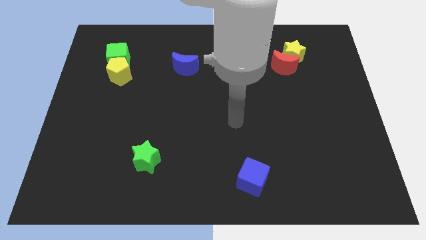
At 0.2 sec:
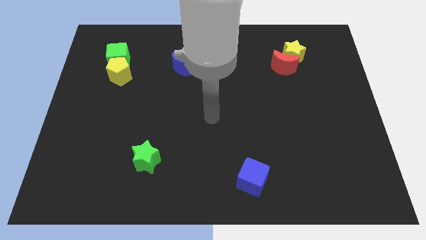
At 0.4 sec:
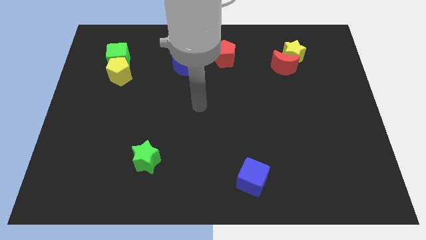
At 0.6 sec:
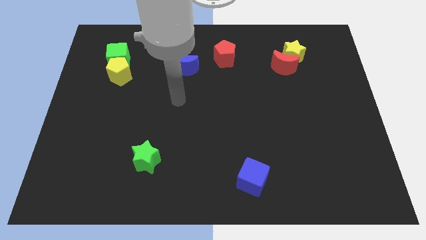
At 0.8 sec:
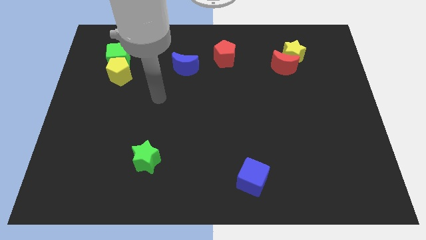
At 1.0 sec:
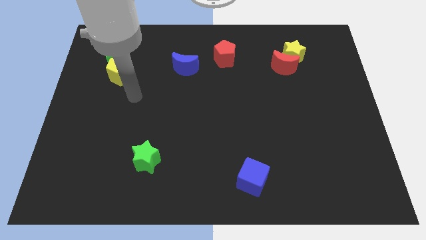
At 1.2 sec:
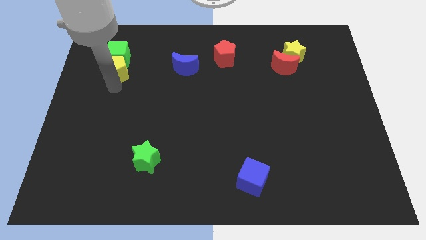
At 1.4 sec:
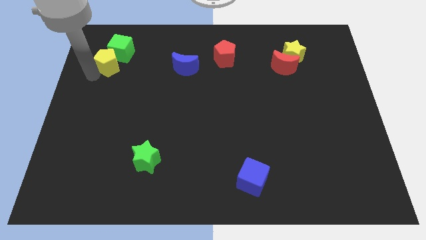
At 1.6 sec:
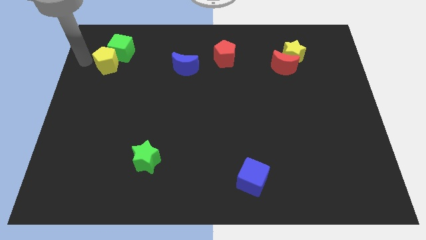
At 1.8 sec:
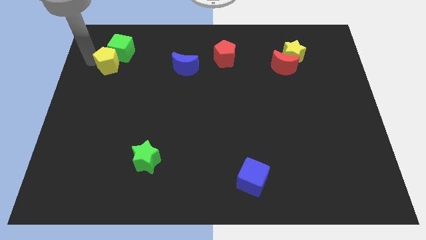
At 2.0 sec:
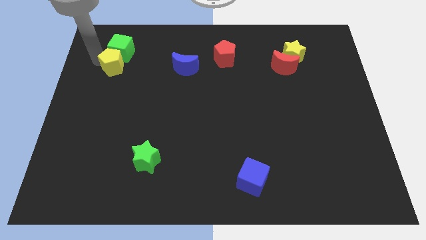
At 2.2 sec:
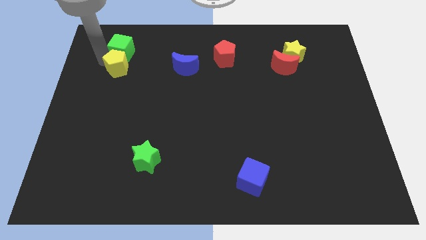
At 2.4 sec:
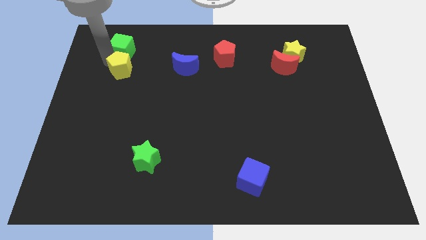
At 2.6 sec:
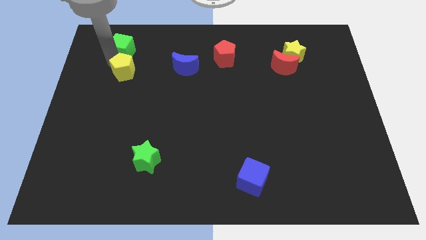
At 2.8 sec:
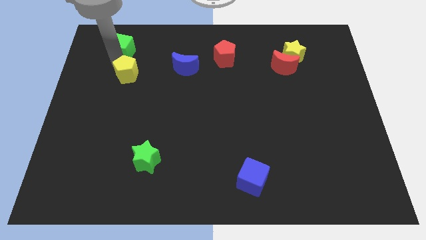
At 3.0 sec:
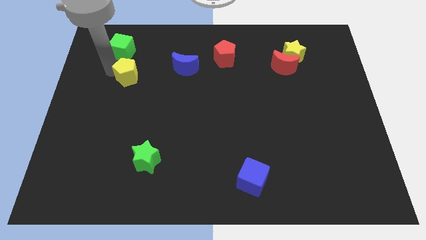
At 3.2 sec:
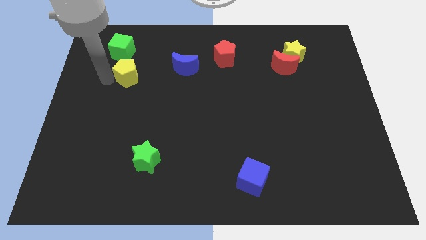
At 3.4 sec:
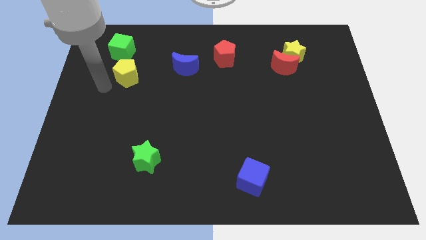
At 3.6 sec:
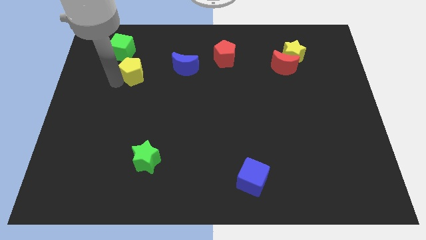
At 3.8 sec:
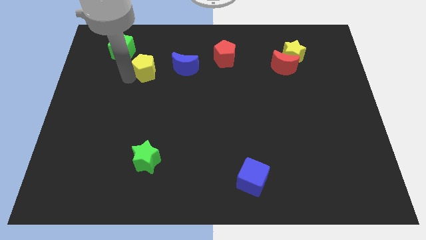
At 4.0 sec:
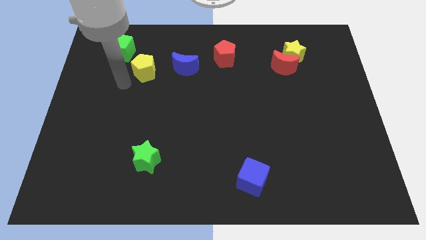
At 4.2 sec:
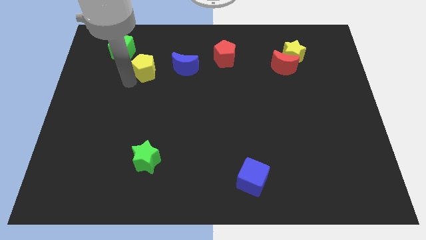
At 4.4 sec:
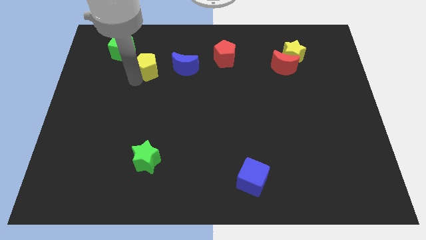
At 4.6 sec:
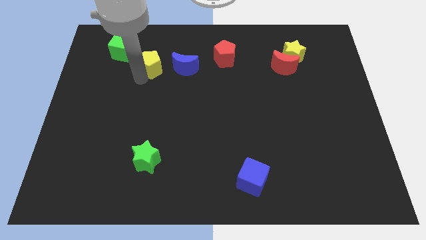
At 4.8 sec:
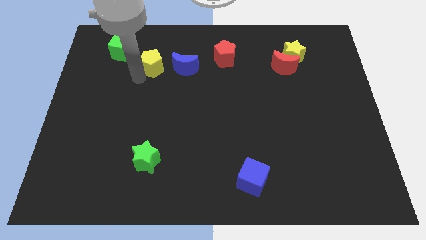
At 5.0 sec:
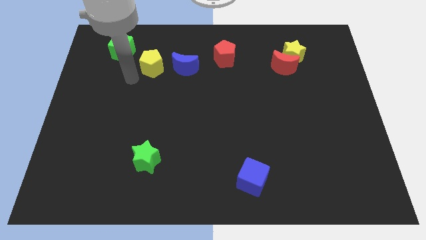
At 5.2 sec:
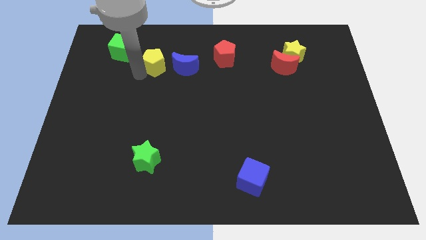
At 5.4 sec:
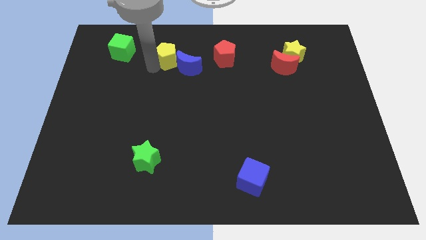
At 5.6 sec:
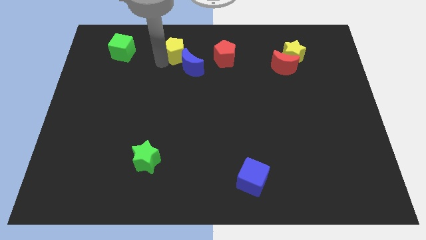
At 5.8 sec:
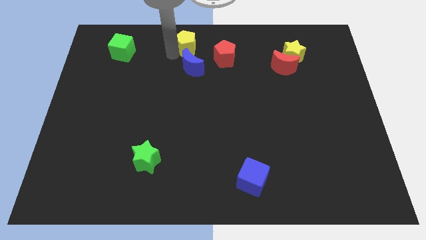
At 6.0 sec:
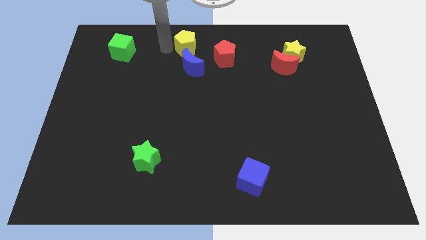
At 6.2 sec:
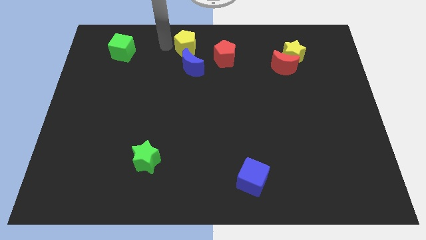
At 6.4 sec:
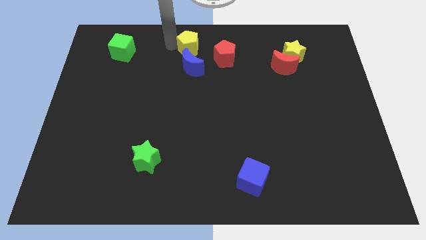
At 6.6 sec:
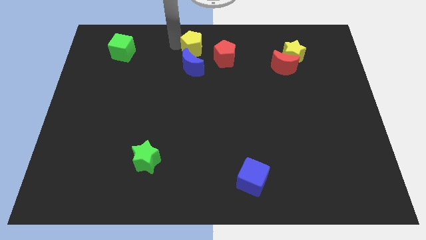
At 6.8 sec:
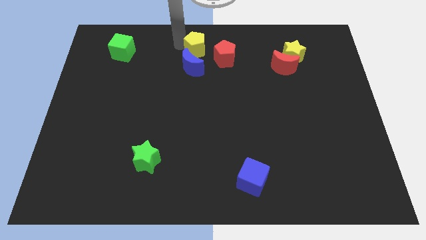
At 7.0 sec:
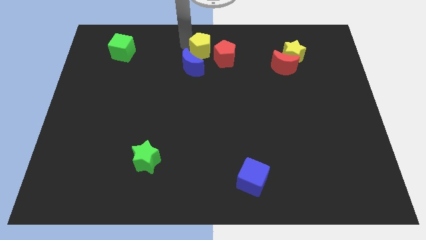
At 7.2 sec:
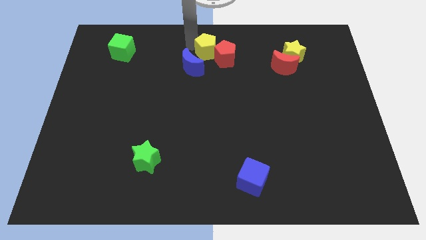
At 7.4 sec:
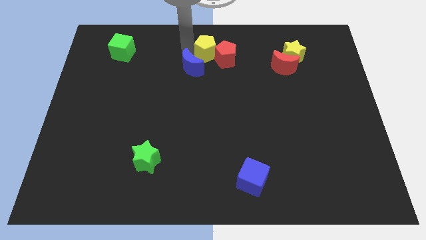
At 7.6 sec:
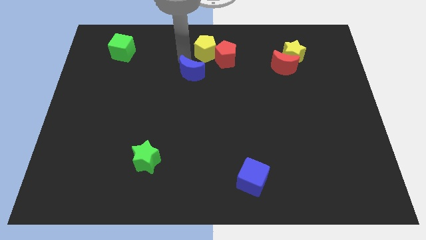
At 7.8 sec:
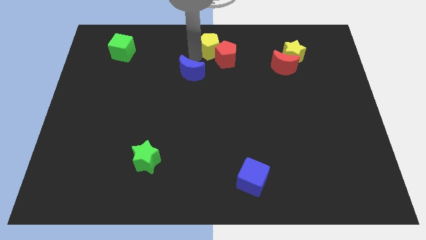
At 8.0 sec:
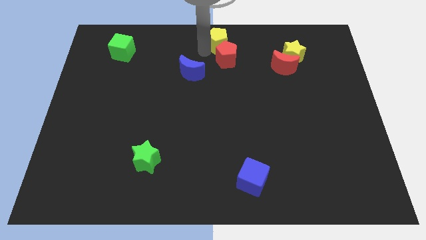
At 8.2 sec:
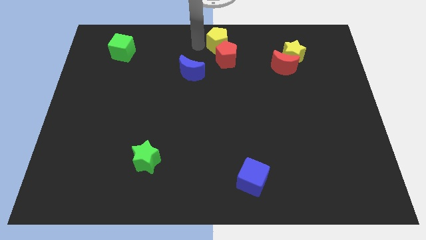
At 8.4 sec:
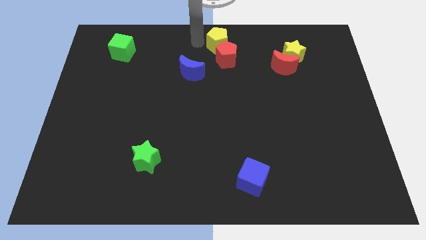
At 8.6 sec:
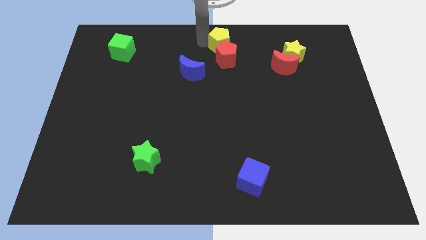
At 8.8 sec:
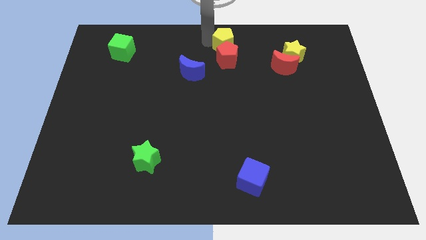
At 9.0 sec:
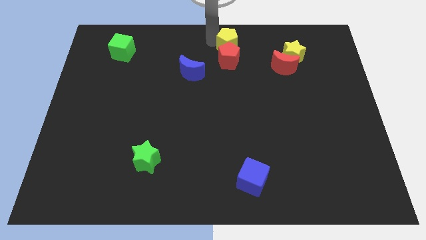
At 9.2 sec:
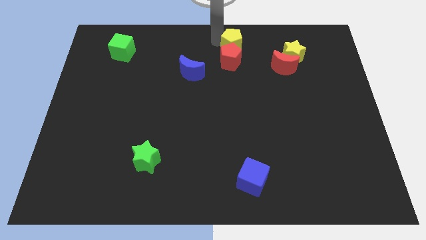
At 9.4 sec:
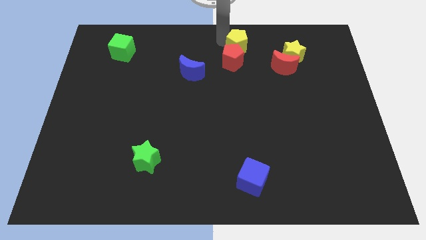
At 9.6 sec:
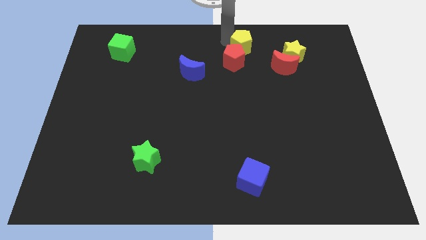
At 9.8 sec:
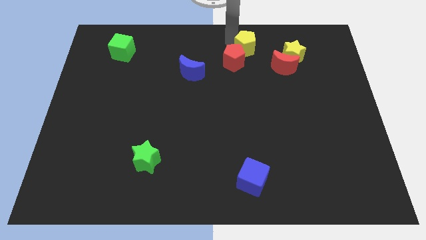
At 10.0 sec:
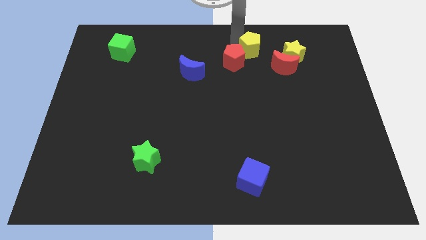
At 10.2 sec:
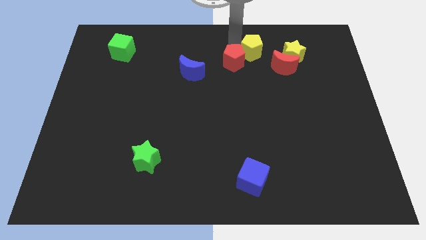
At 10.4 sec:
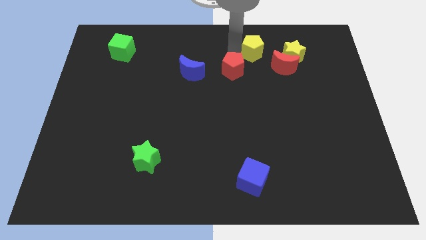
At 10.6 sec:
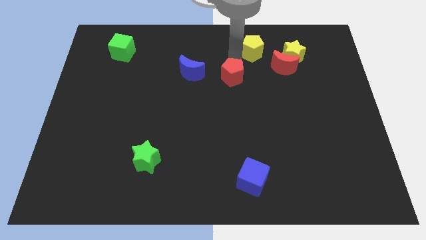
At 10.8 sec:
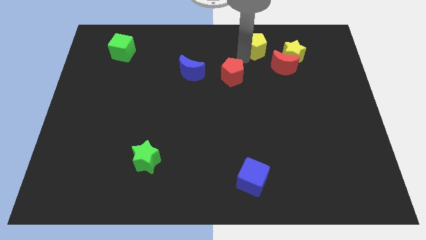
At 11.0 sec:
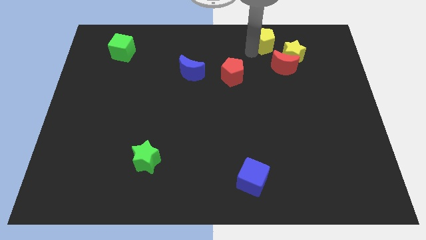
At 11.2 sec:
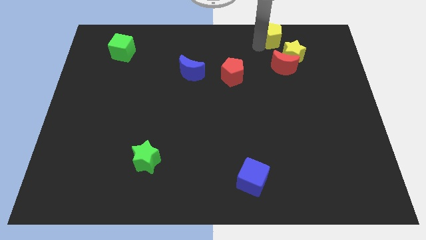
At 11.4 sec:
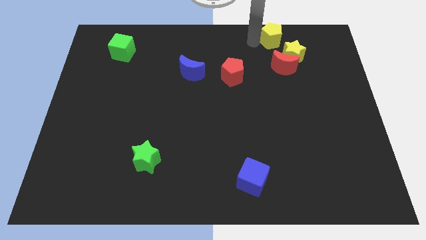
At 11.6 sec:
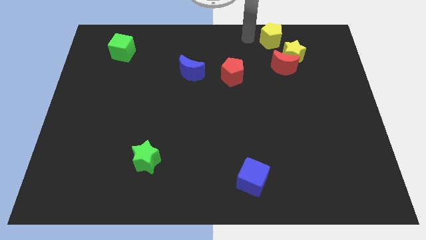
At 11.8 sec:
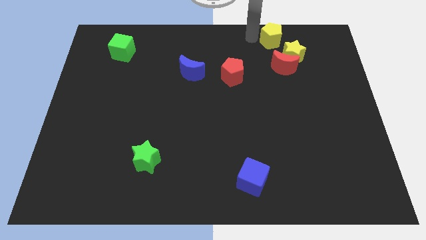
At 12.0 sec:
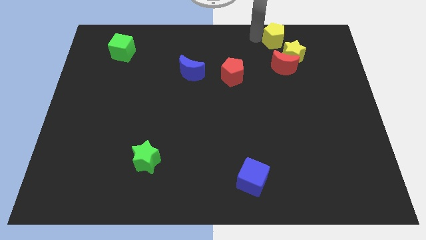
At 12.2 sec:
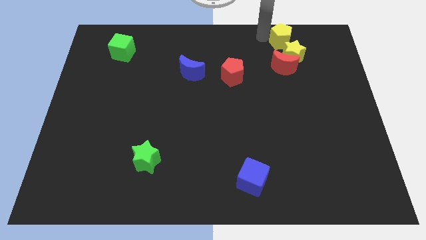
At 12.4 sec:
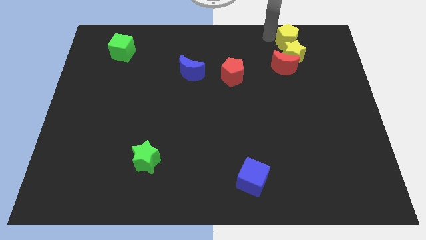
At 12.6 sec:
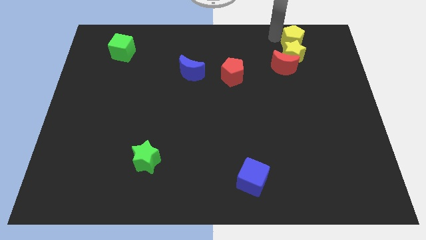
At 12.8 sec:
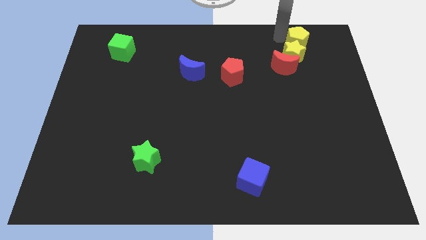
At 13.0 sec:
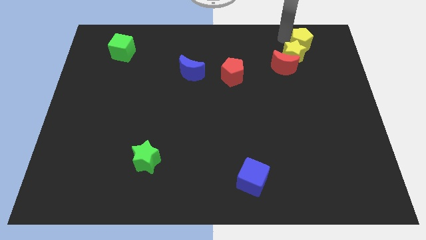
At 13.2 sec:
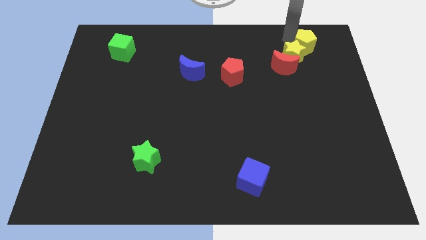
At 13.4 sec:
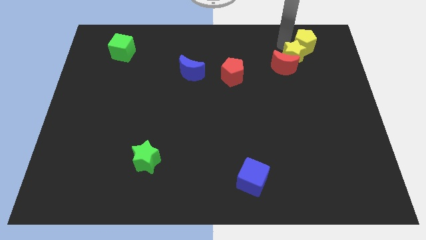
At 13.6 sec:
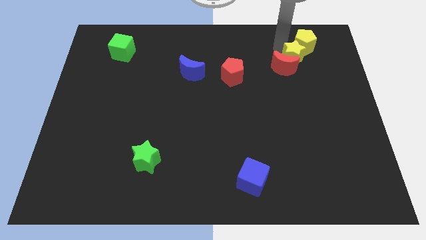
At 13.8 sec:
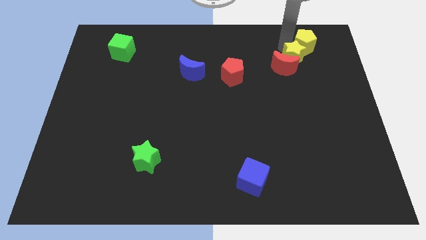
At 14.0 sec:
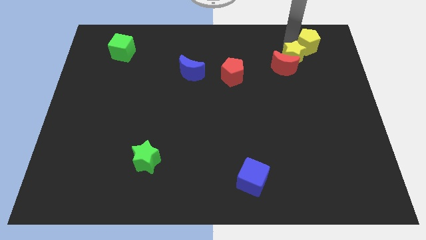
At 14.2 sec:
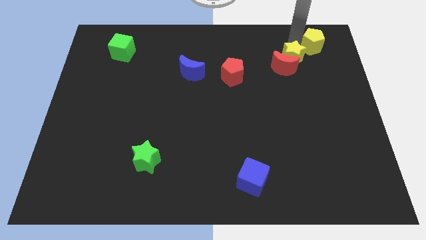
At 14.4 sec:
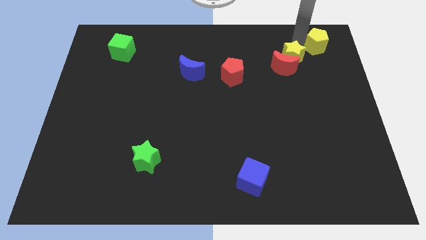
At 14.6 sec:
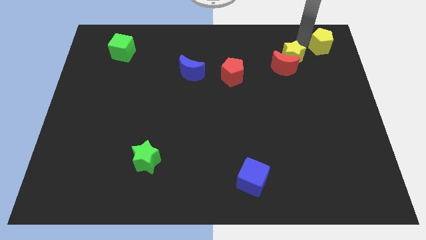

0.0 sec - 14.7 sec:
move the yellow pentagon to the top right corner

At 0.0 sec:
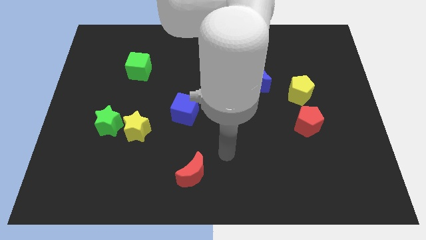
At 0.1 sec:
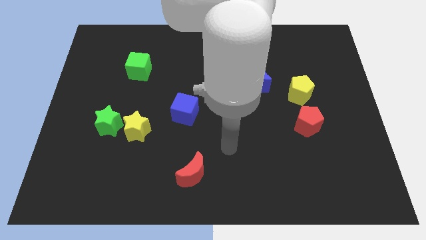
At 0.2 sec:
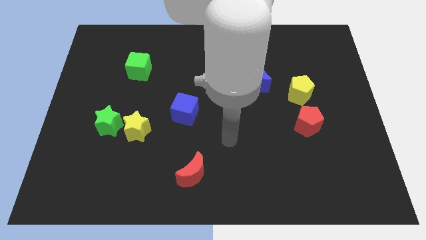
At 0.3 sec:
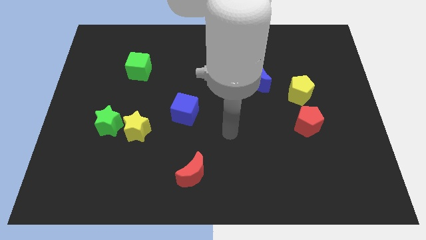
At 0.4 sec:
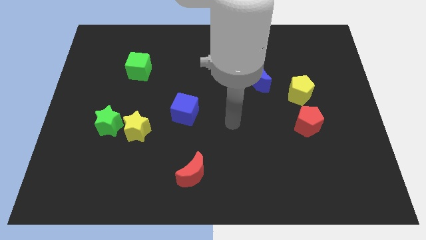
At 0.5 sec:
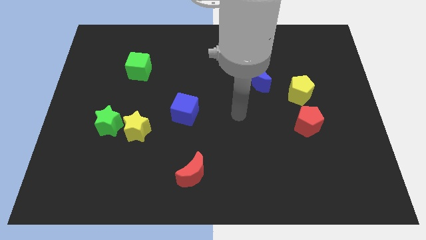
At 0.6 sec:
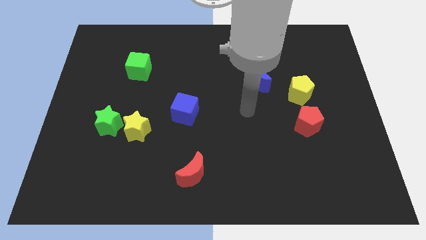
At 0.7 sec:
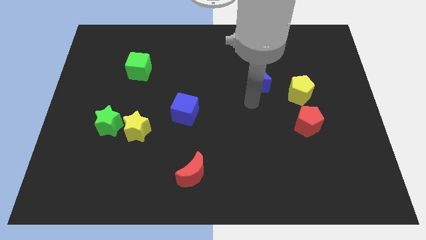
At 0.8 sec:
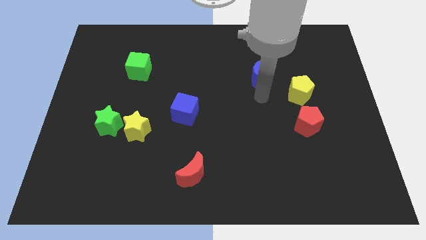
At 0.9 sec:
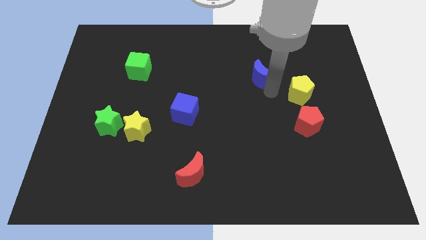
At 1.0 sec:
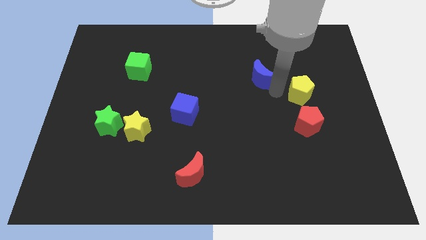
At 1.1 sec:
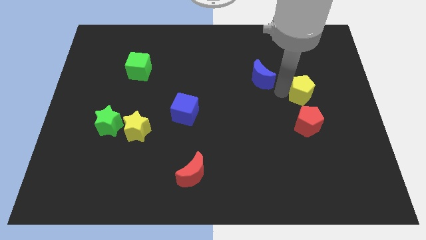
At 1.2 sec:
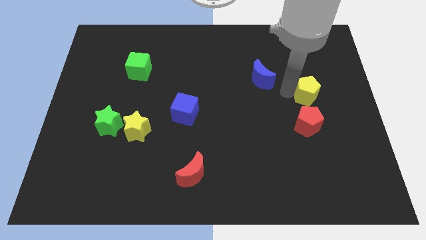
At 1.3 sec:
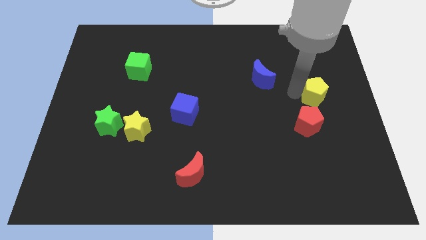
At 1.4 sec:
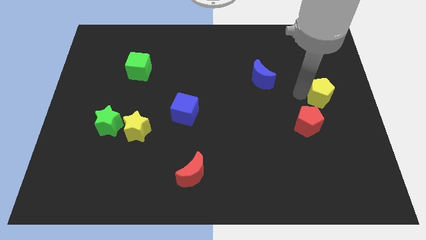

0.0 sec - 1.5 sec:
put the yellow pentagon to the right side
